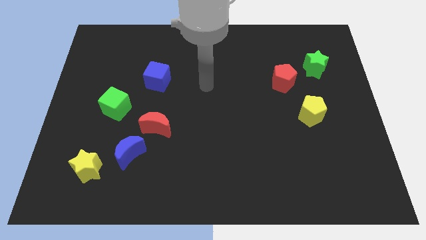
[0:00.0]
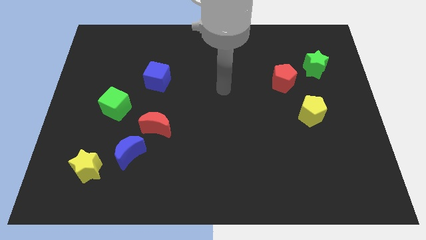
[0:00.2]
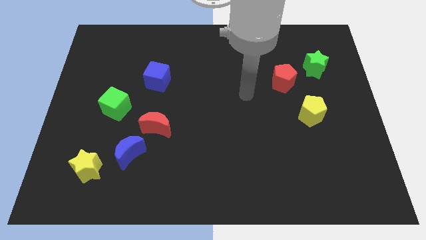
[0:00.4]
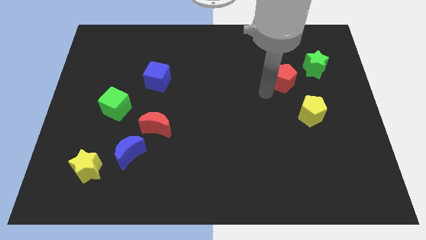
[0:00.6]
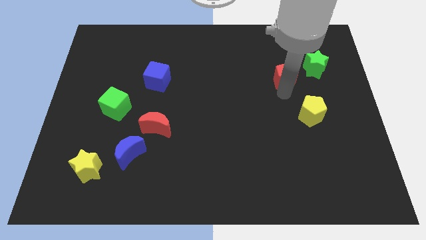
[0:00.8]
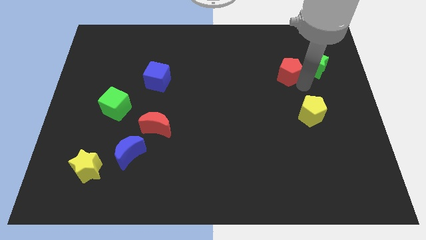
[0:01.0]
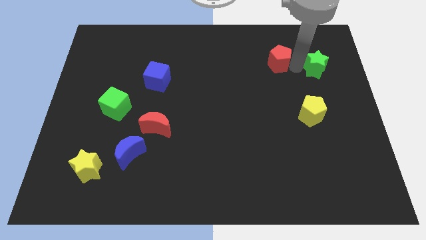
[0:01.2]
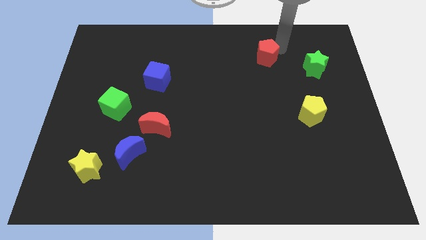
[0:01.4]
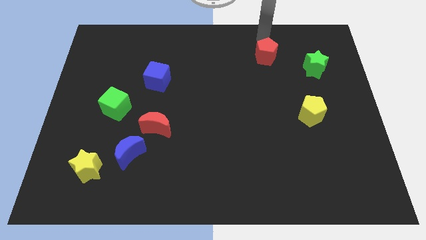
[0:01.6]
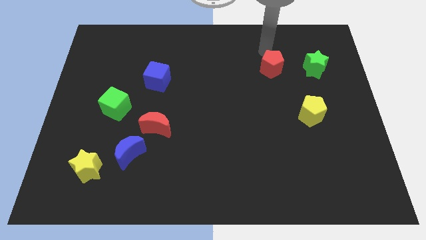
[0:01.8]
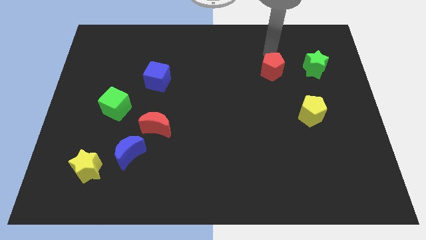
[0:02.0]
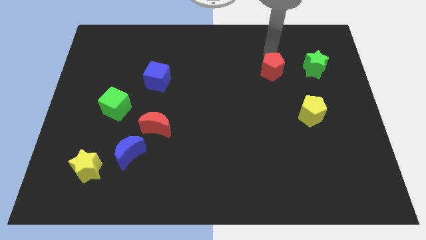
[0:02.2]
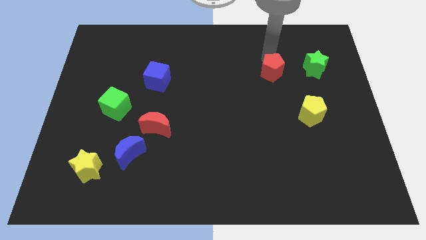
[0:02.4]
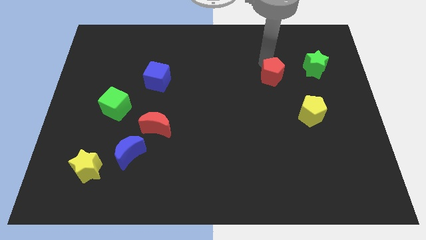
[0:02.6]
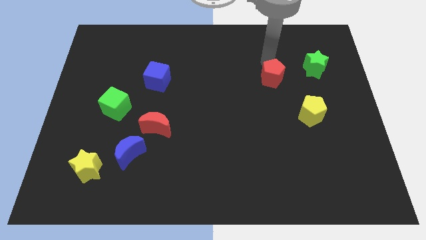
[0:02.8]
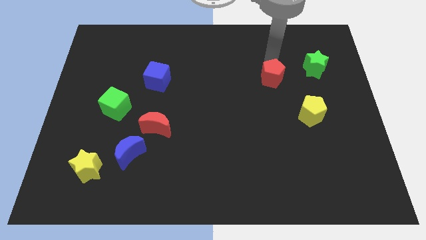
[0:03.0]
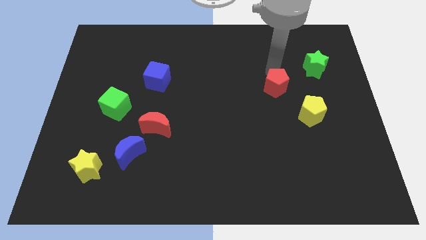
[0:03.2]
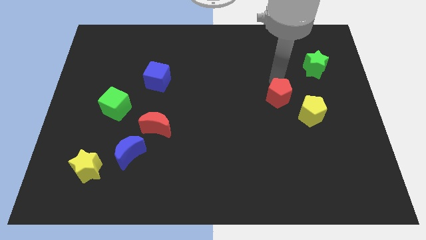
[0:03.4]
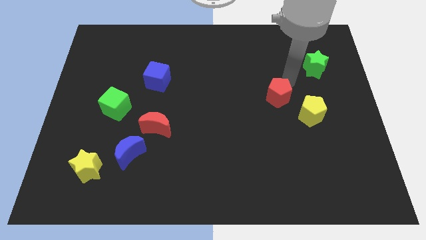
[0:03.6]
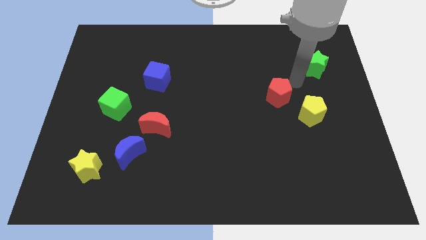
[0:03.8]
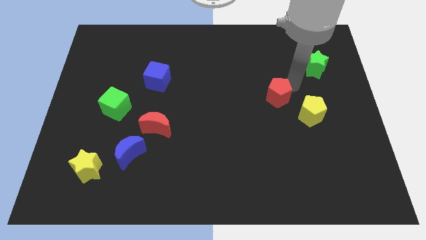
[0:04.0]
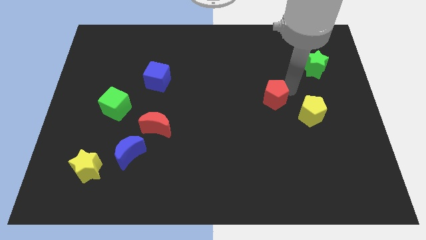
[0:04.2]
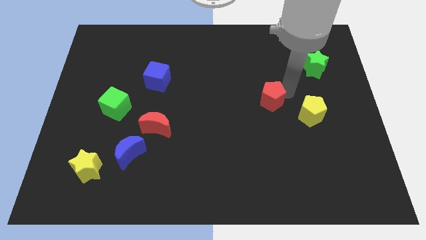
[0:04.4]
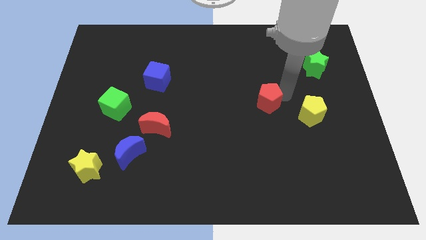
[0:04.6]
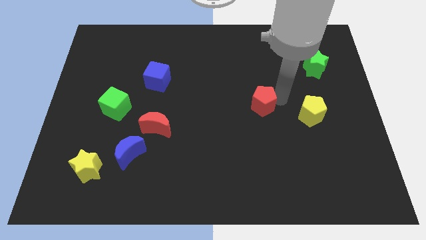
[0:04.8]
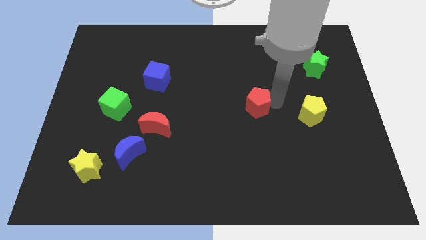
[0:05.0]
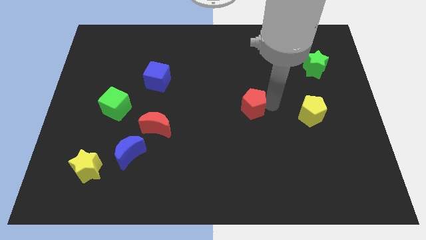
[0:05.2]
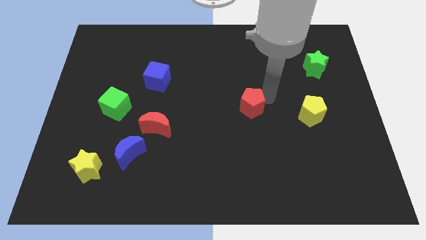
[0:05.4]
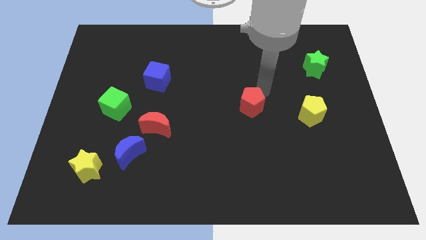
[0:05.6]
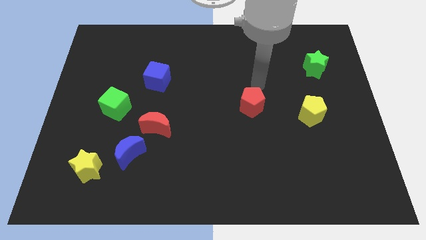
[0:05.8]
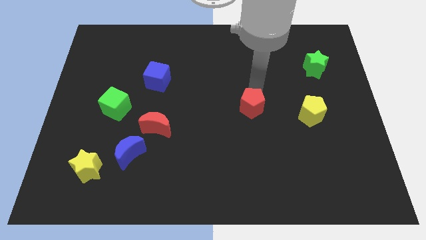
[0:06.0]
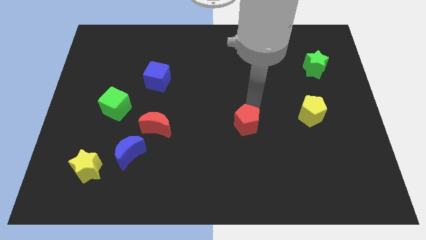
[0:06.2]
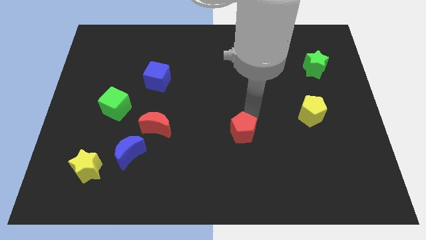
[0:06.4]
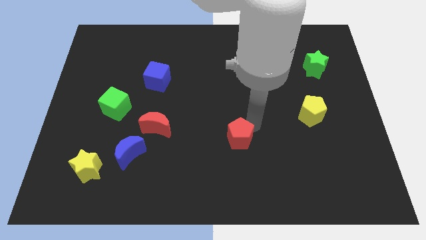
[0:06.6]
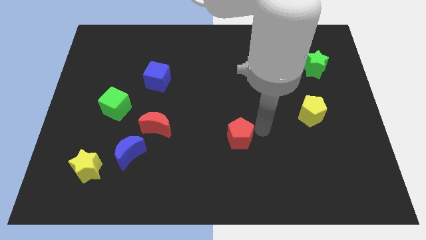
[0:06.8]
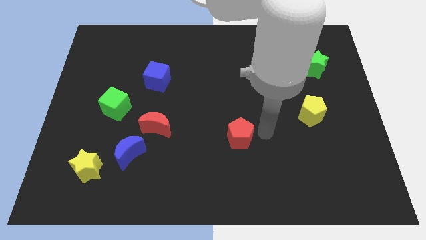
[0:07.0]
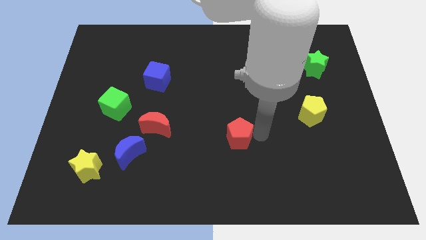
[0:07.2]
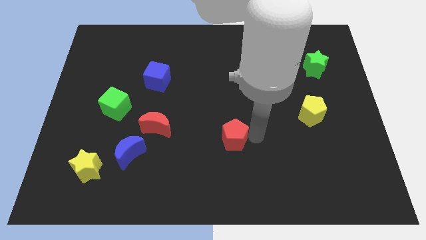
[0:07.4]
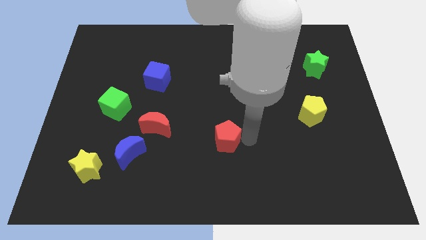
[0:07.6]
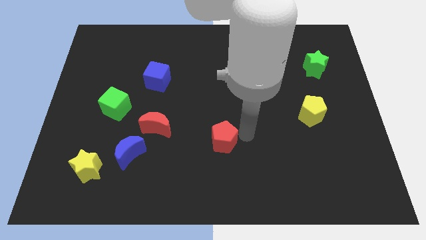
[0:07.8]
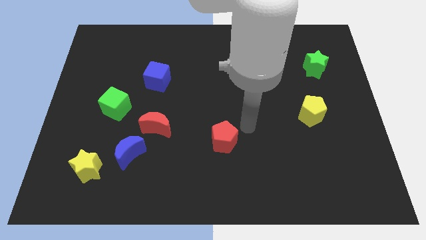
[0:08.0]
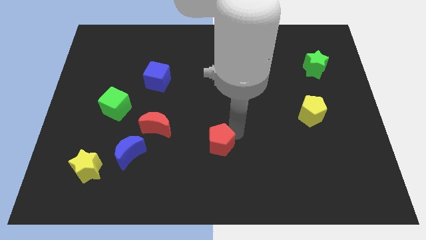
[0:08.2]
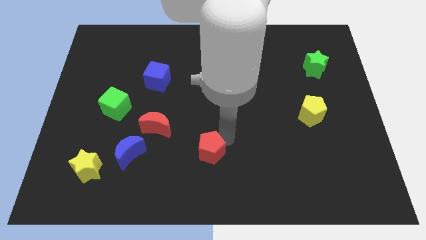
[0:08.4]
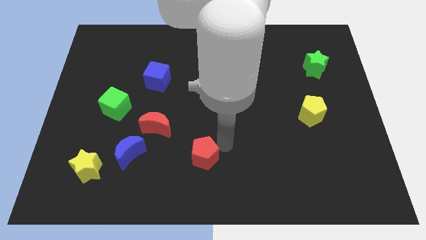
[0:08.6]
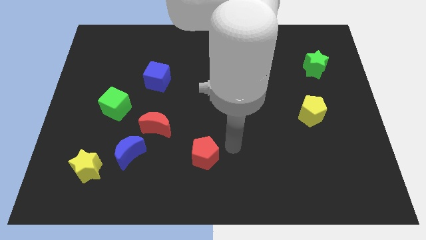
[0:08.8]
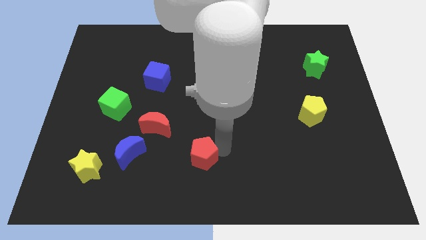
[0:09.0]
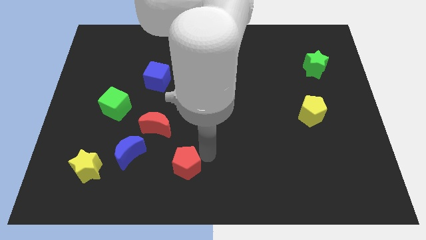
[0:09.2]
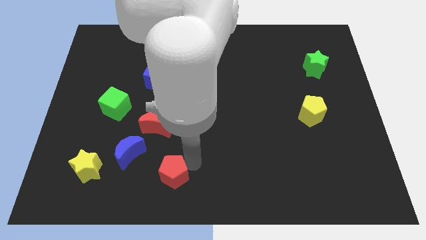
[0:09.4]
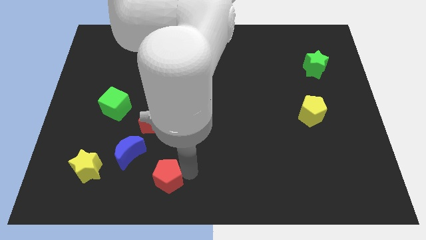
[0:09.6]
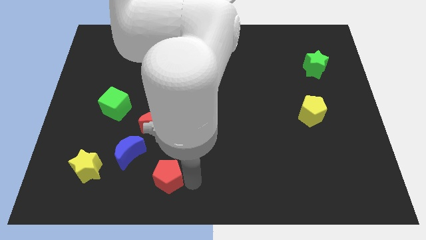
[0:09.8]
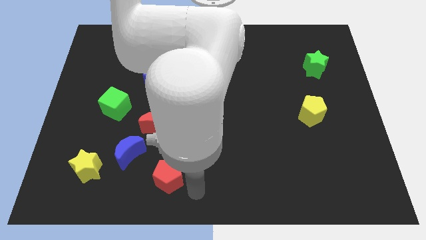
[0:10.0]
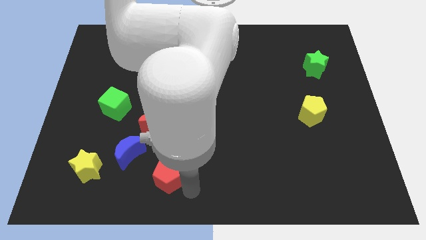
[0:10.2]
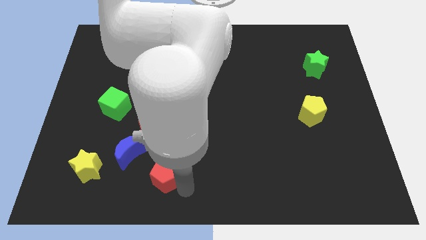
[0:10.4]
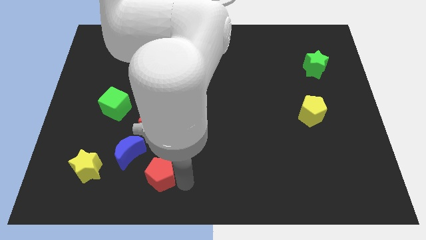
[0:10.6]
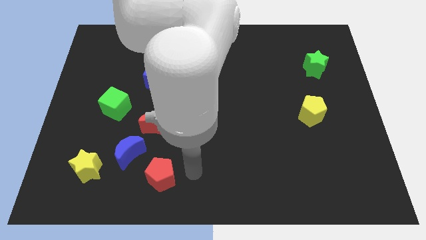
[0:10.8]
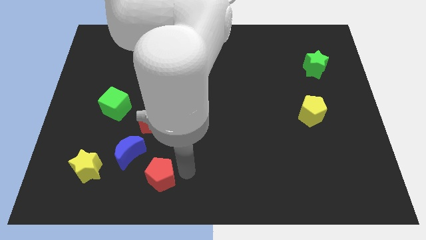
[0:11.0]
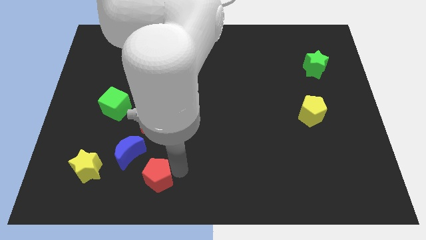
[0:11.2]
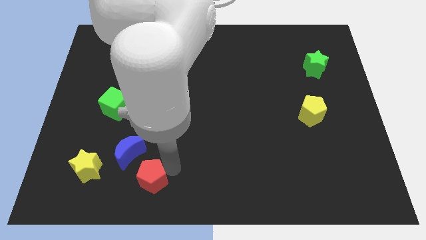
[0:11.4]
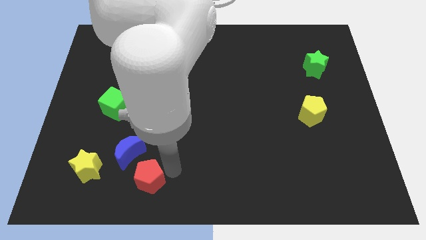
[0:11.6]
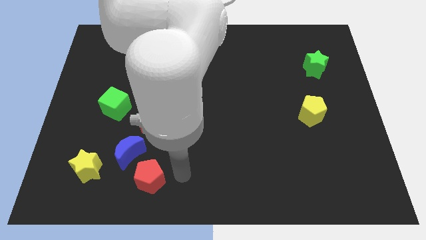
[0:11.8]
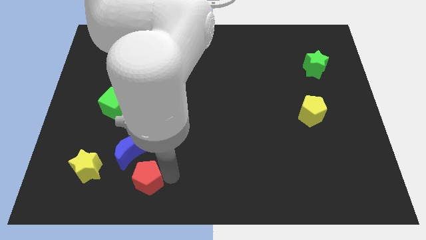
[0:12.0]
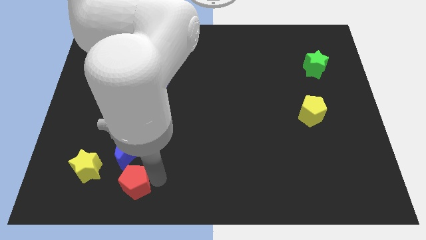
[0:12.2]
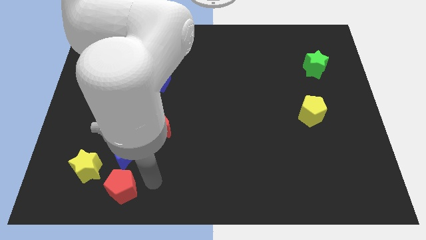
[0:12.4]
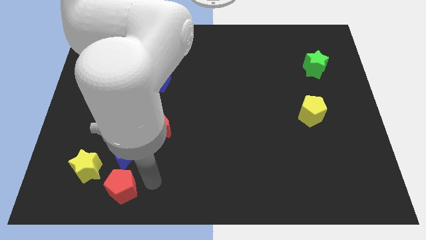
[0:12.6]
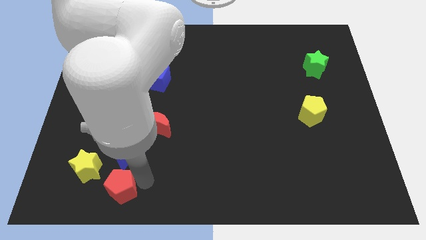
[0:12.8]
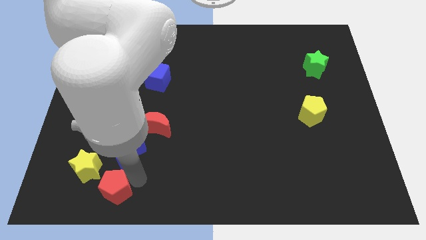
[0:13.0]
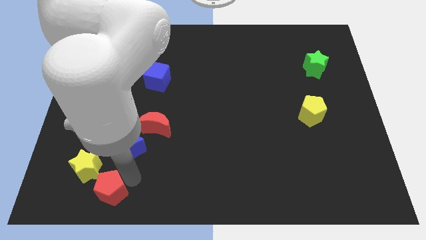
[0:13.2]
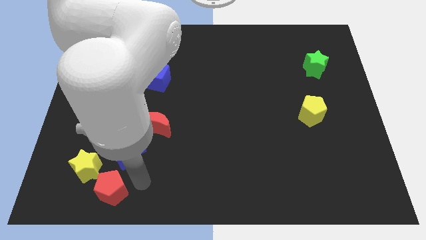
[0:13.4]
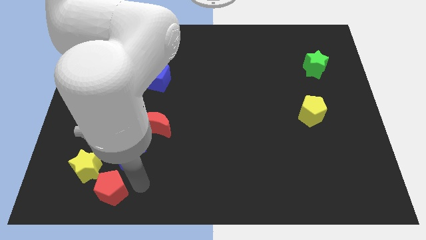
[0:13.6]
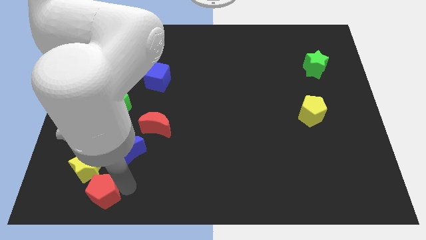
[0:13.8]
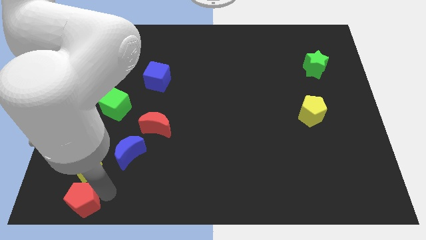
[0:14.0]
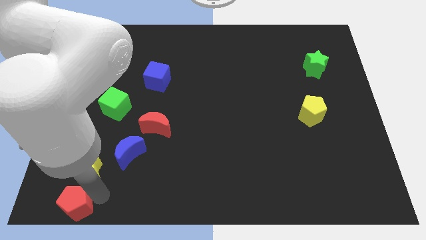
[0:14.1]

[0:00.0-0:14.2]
push the red pentagon to the bottom left
